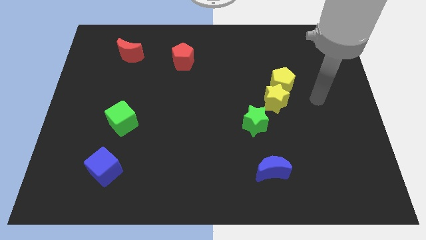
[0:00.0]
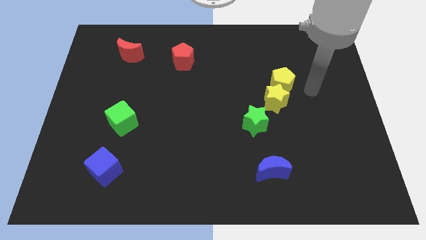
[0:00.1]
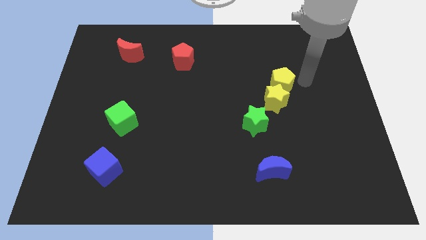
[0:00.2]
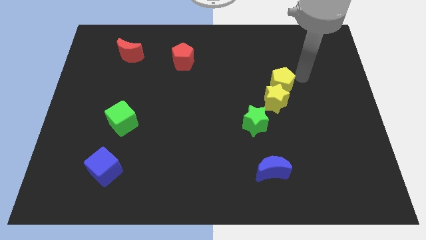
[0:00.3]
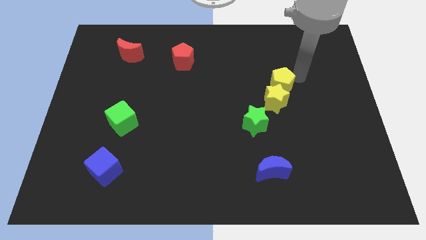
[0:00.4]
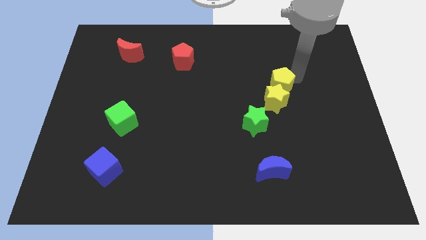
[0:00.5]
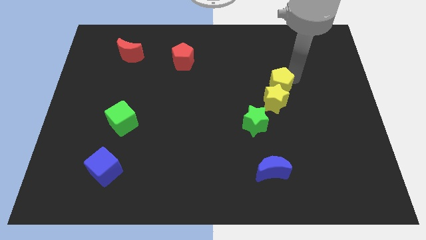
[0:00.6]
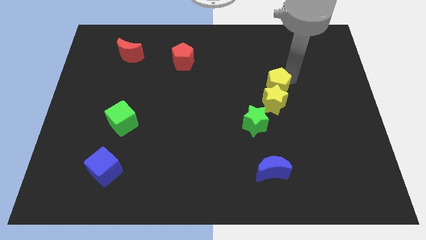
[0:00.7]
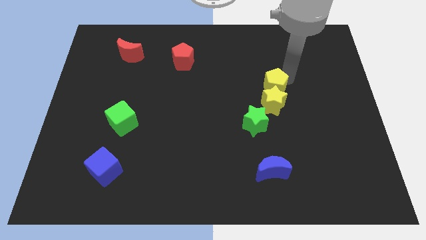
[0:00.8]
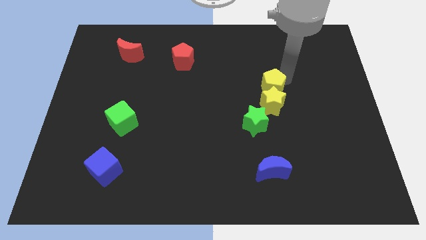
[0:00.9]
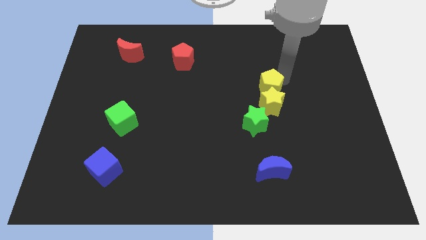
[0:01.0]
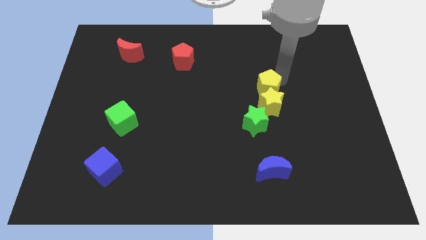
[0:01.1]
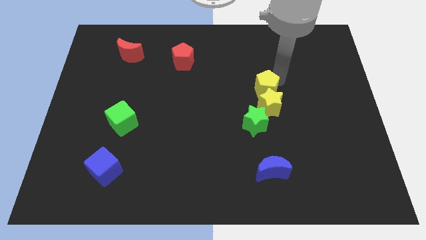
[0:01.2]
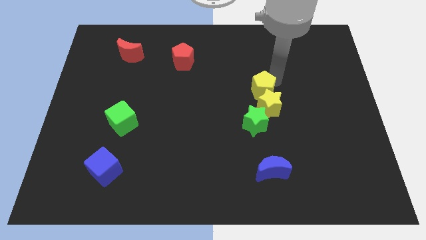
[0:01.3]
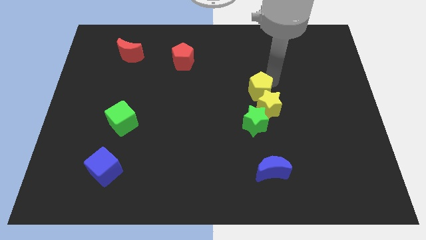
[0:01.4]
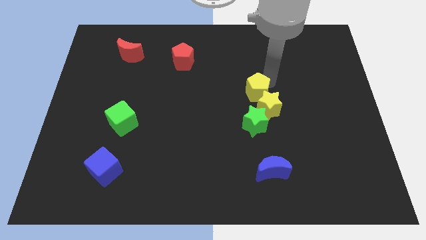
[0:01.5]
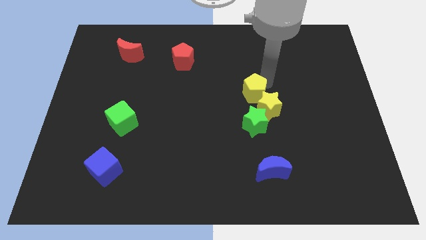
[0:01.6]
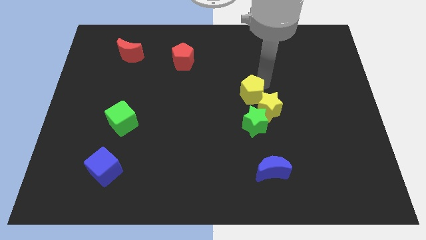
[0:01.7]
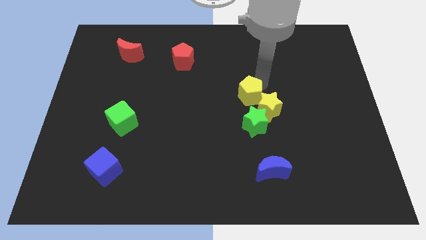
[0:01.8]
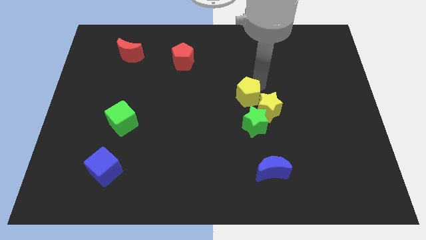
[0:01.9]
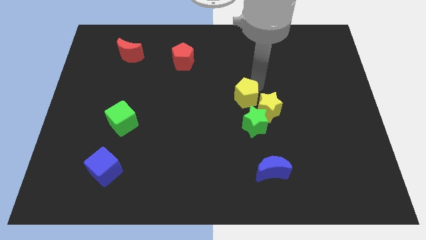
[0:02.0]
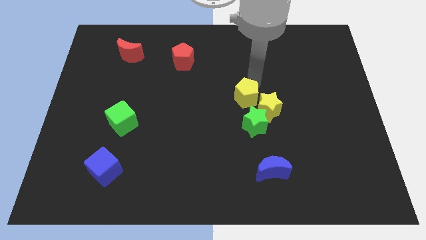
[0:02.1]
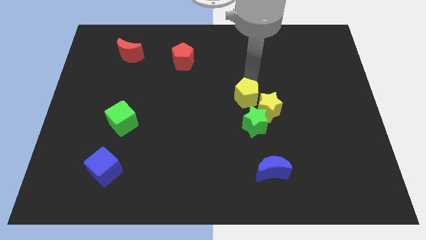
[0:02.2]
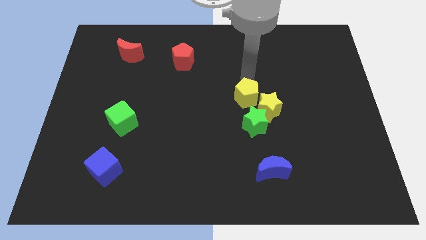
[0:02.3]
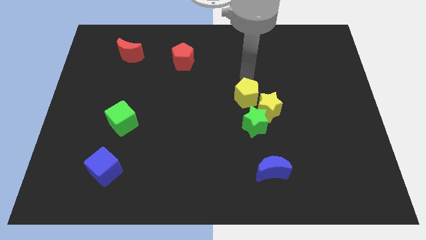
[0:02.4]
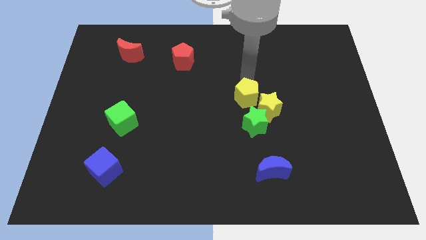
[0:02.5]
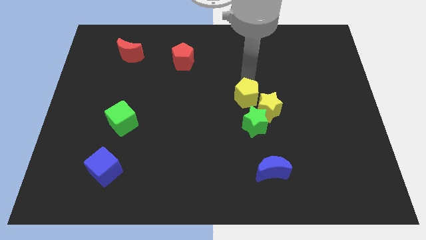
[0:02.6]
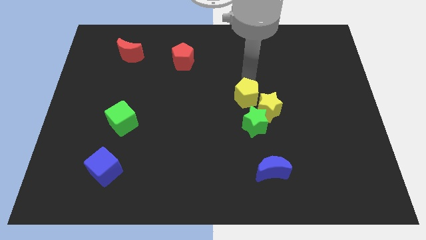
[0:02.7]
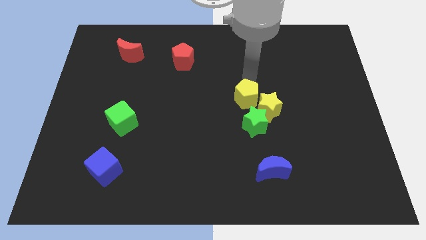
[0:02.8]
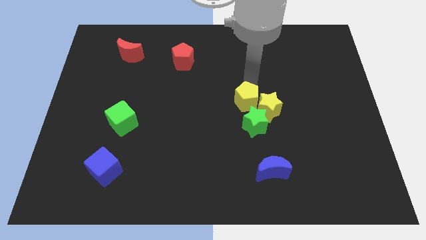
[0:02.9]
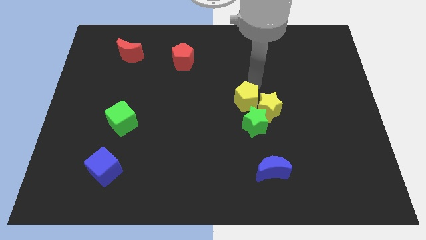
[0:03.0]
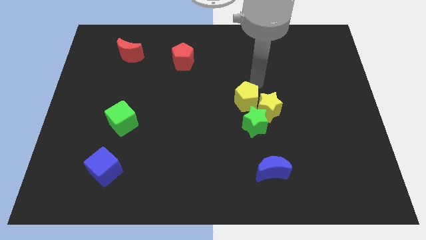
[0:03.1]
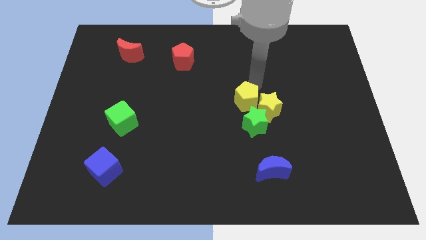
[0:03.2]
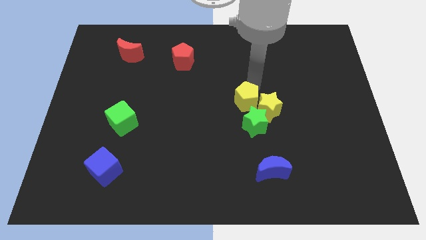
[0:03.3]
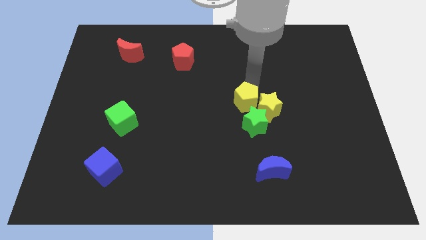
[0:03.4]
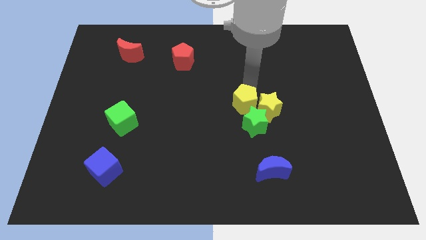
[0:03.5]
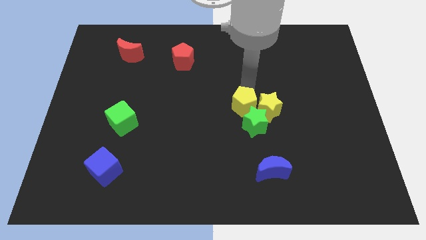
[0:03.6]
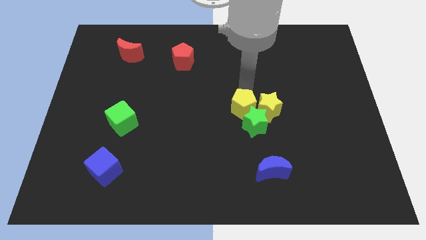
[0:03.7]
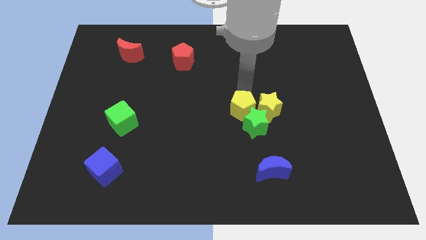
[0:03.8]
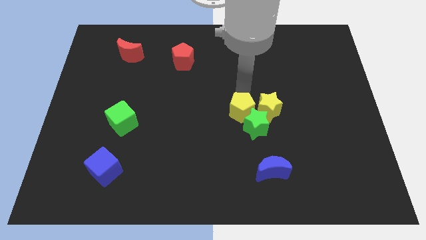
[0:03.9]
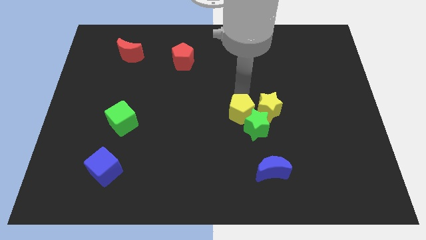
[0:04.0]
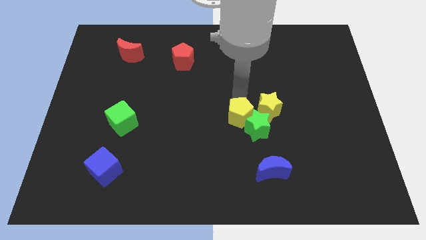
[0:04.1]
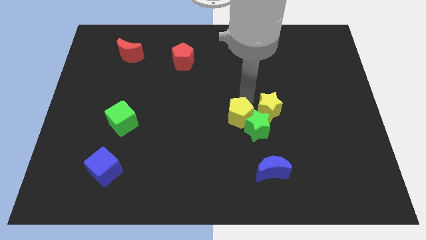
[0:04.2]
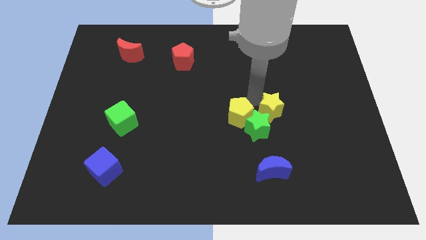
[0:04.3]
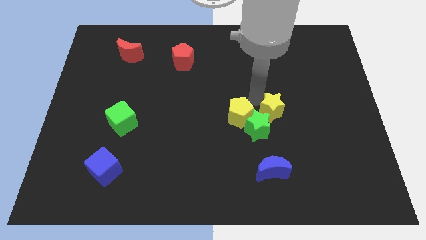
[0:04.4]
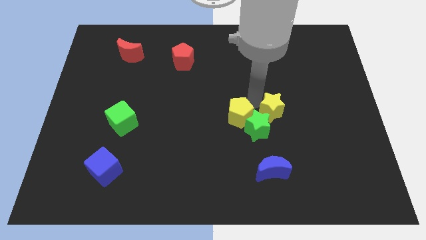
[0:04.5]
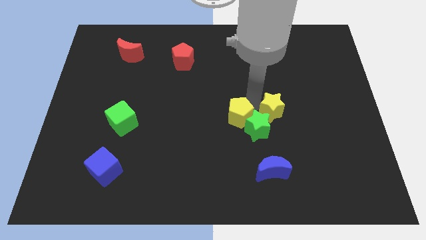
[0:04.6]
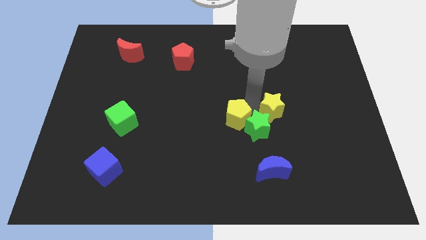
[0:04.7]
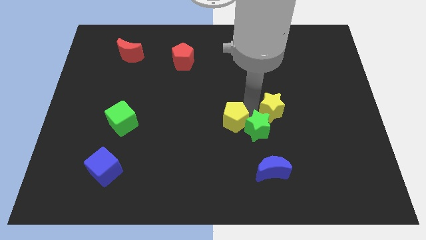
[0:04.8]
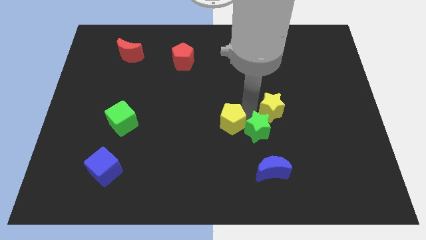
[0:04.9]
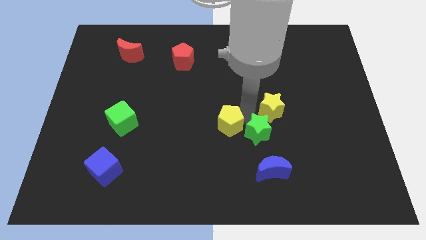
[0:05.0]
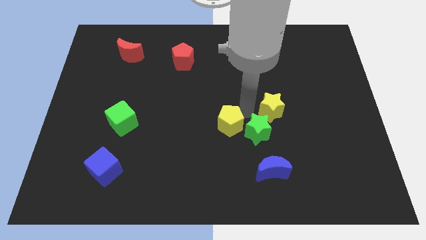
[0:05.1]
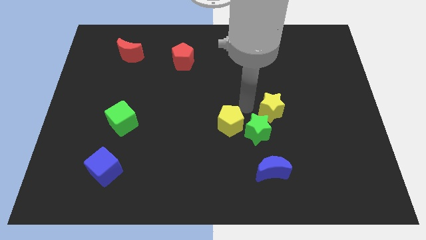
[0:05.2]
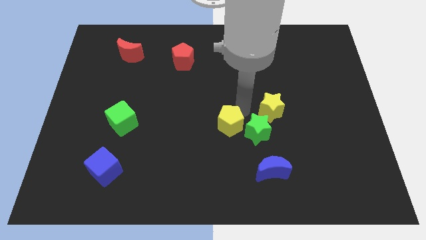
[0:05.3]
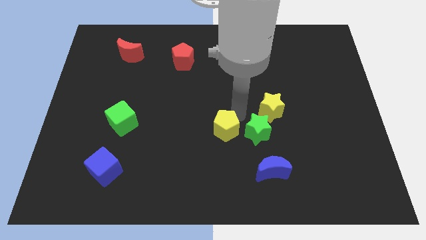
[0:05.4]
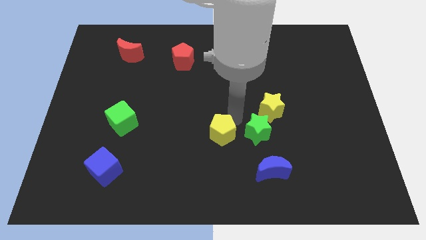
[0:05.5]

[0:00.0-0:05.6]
slide the yellow pentagon down and left diagonally

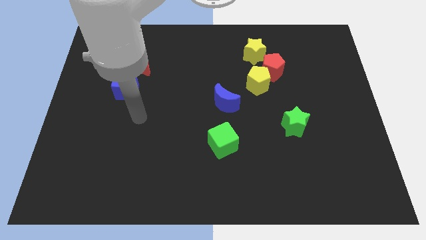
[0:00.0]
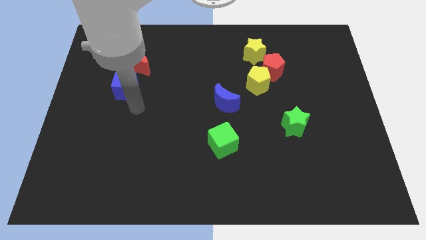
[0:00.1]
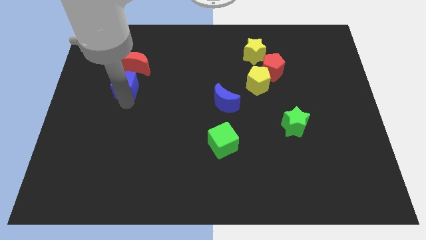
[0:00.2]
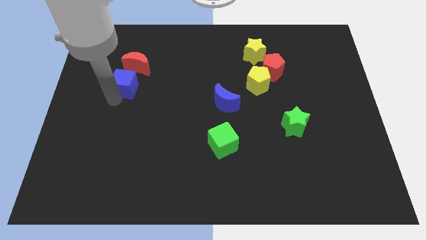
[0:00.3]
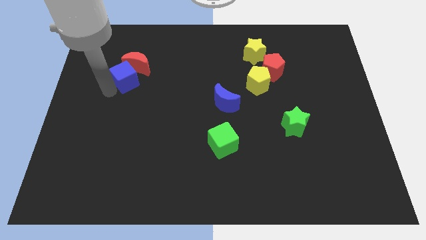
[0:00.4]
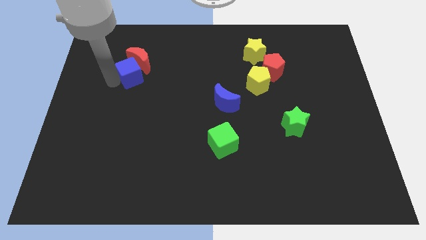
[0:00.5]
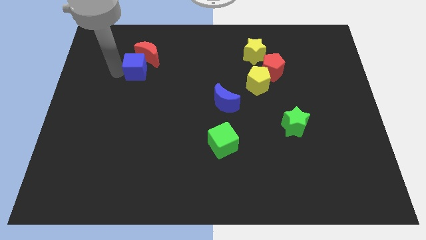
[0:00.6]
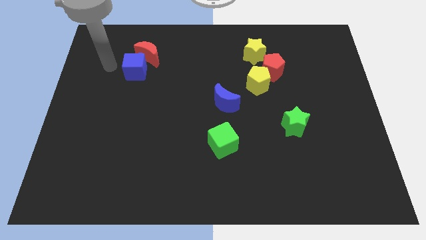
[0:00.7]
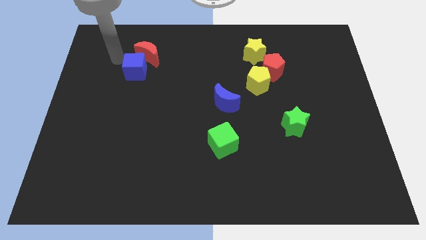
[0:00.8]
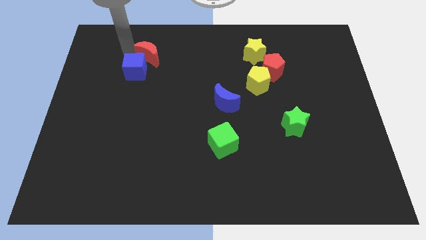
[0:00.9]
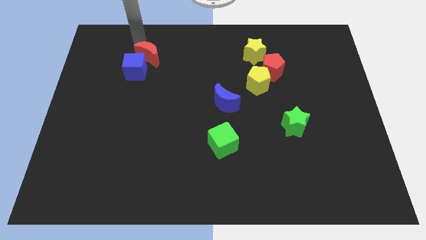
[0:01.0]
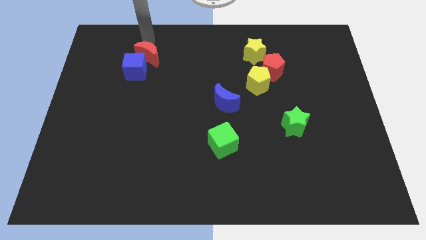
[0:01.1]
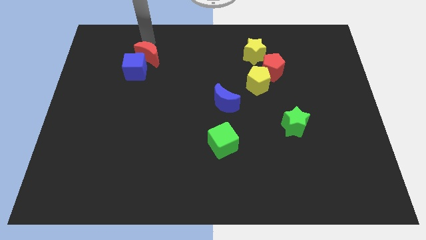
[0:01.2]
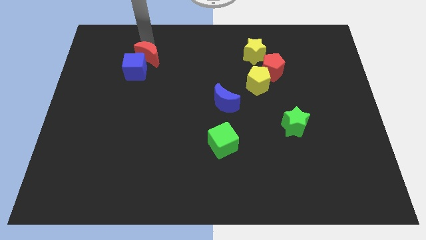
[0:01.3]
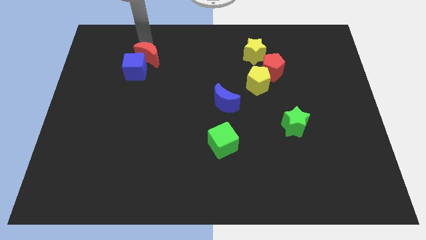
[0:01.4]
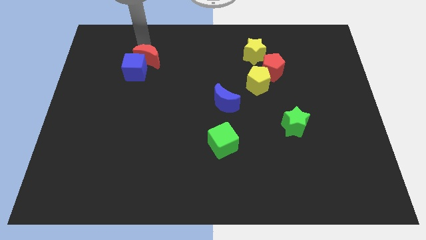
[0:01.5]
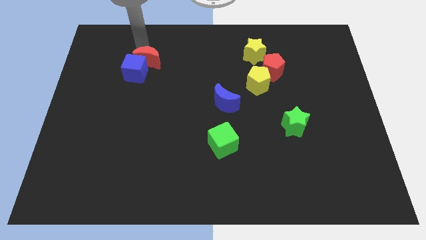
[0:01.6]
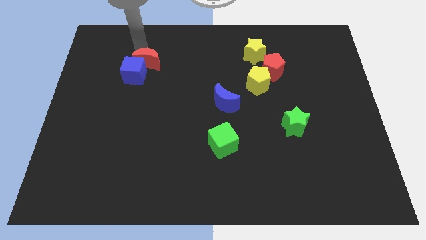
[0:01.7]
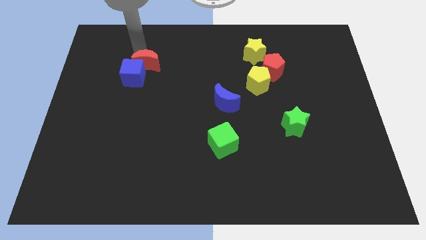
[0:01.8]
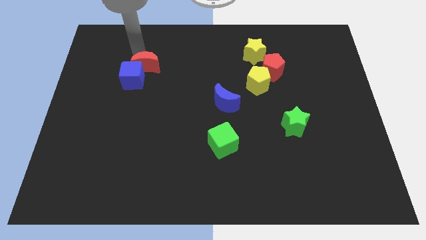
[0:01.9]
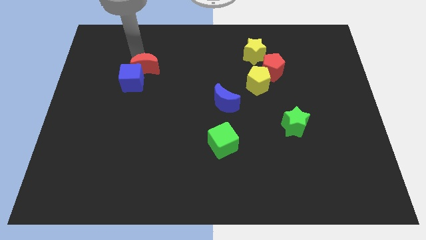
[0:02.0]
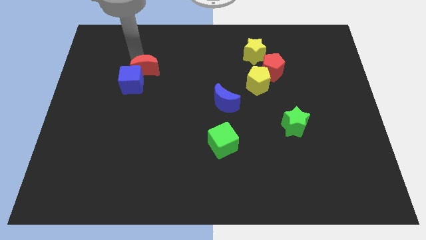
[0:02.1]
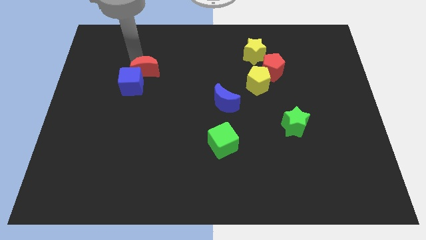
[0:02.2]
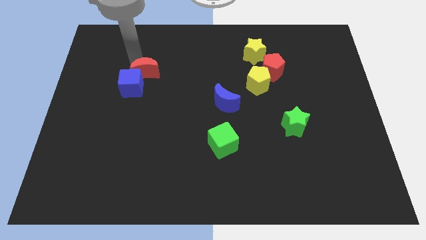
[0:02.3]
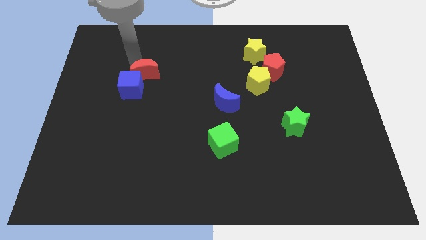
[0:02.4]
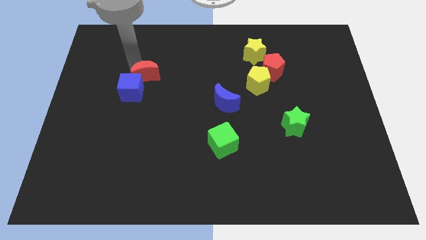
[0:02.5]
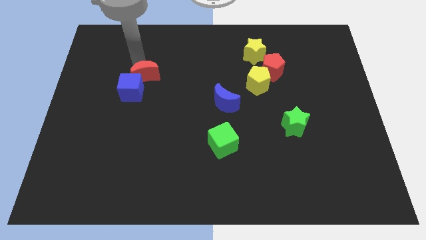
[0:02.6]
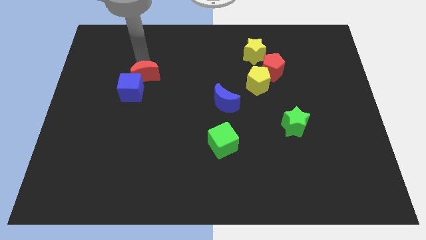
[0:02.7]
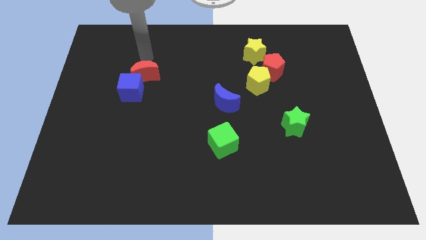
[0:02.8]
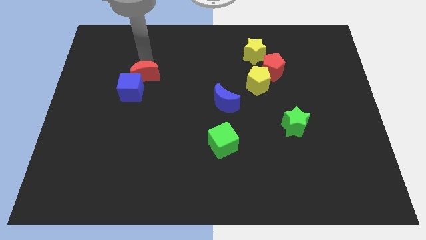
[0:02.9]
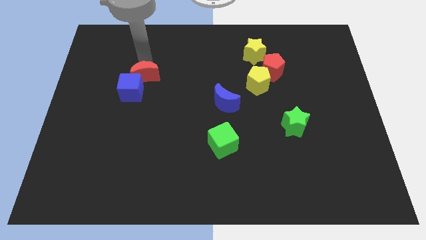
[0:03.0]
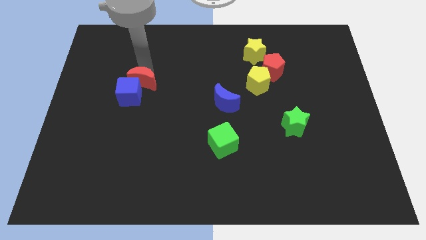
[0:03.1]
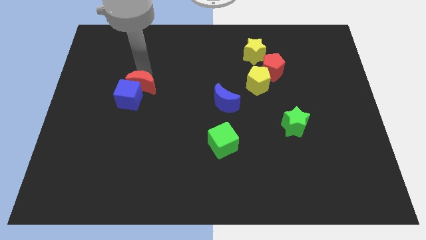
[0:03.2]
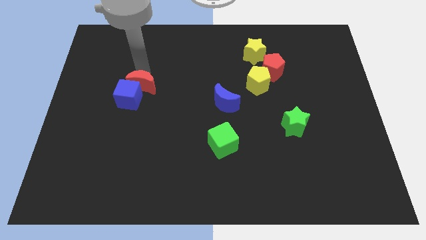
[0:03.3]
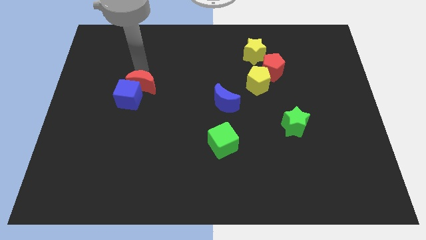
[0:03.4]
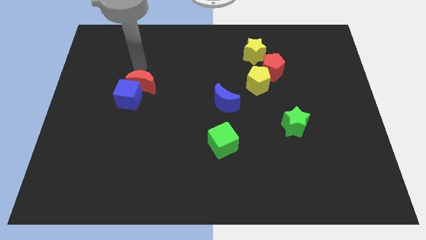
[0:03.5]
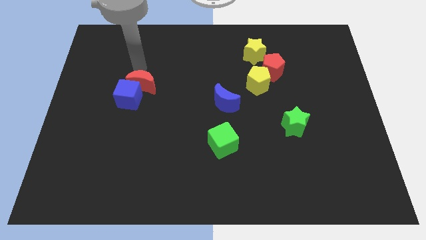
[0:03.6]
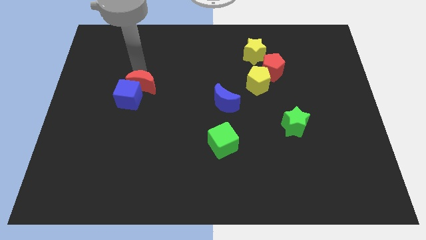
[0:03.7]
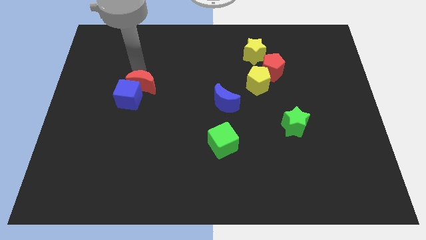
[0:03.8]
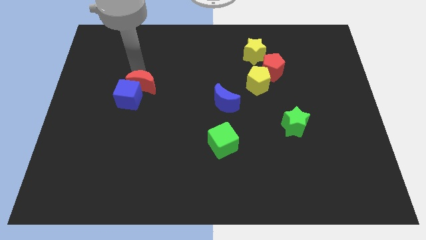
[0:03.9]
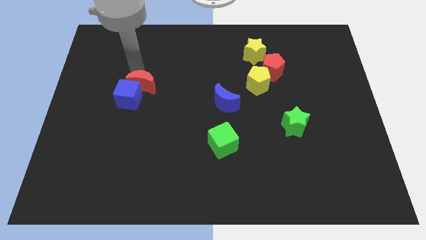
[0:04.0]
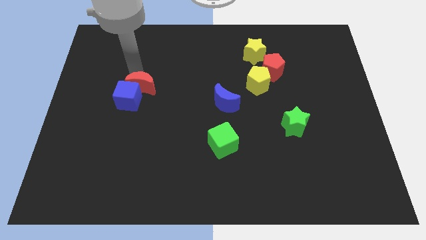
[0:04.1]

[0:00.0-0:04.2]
slide the red moon slightly downwards
